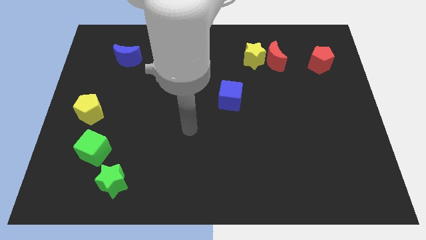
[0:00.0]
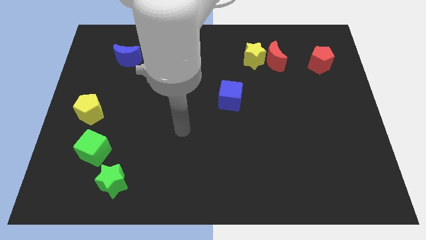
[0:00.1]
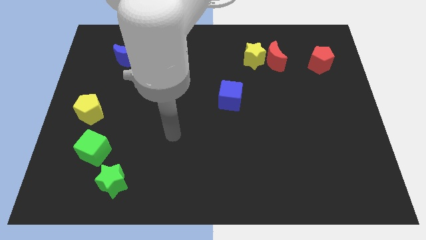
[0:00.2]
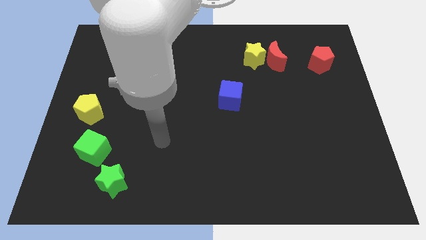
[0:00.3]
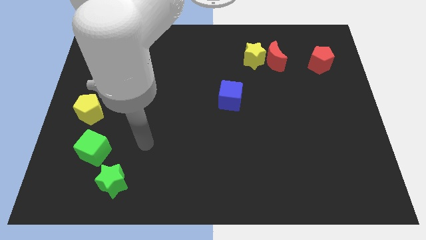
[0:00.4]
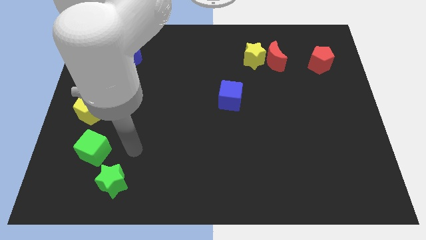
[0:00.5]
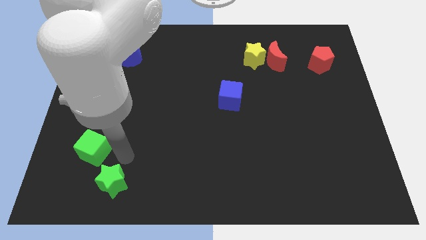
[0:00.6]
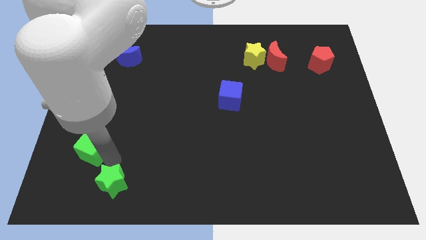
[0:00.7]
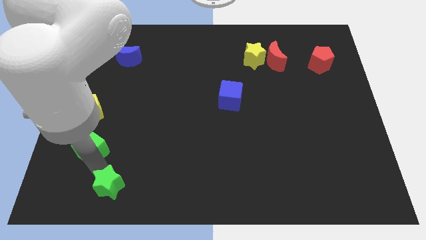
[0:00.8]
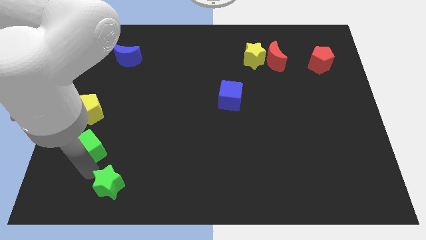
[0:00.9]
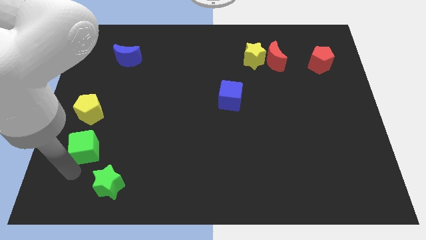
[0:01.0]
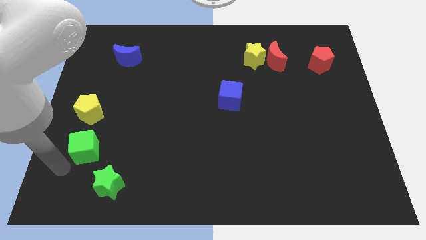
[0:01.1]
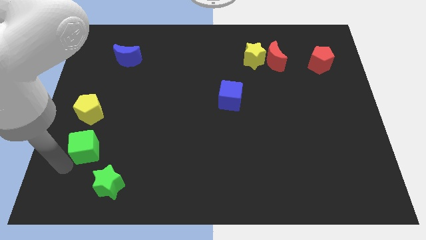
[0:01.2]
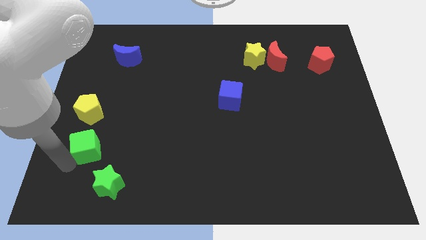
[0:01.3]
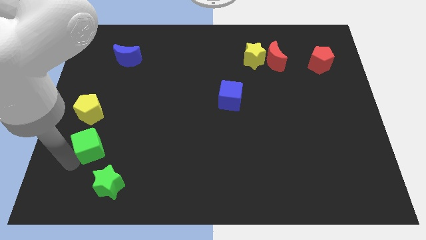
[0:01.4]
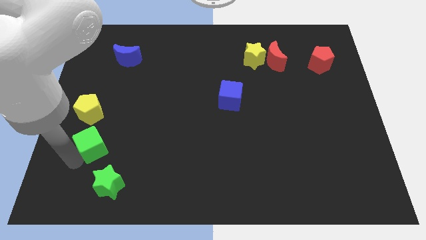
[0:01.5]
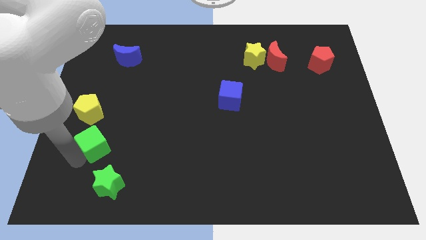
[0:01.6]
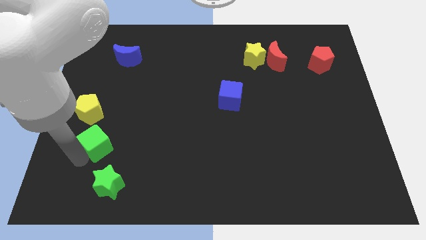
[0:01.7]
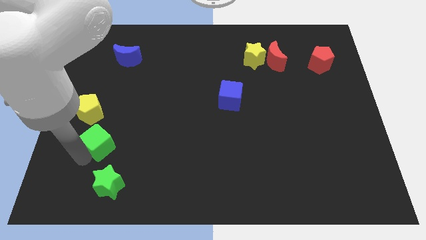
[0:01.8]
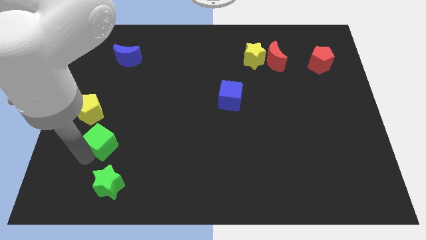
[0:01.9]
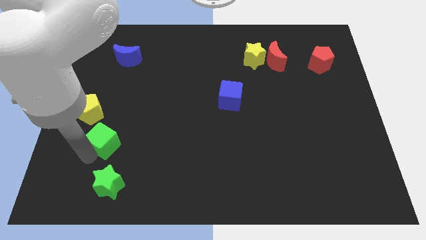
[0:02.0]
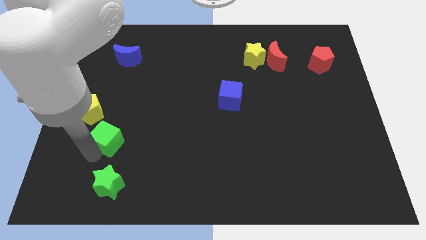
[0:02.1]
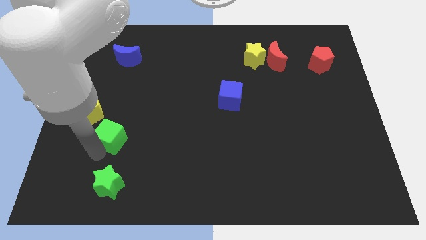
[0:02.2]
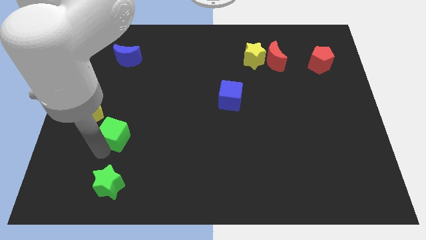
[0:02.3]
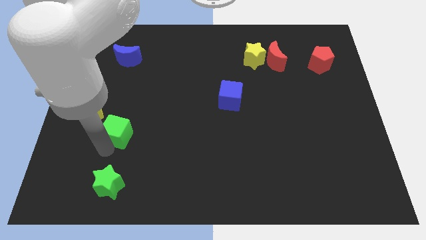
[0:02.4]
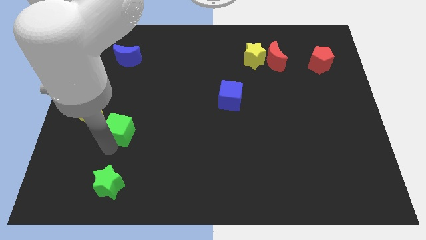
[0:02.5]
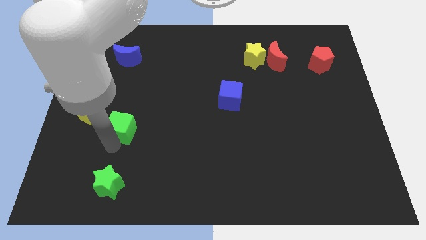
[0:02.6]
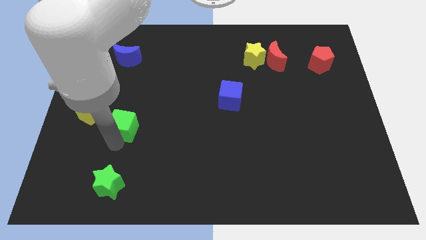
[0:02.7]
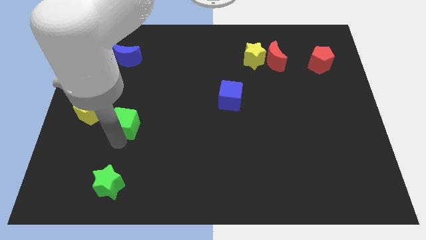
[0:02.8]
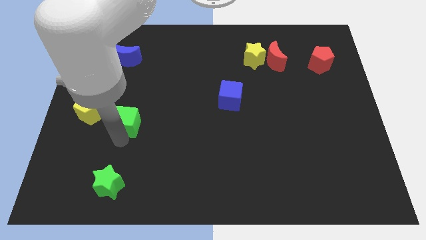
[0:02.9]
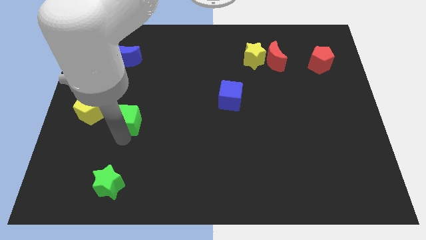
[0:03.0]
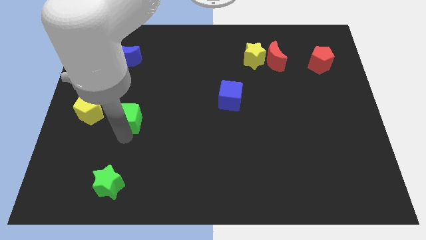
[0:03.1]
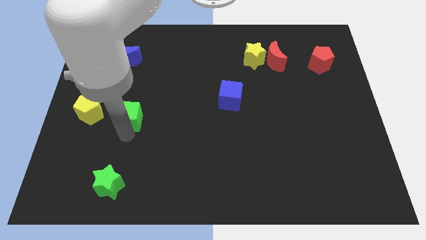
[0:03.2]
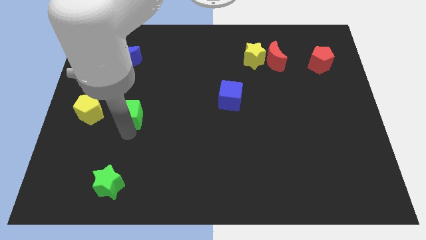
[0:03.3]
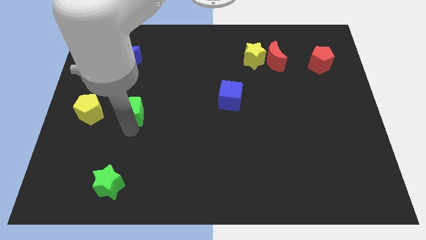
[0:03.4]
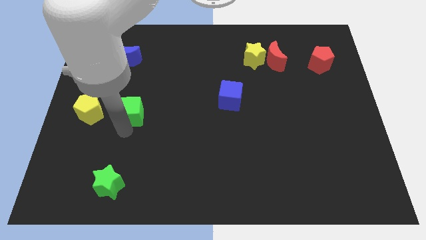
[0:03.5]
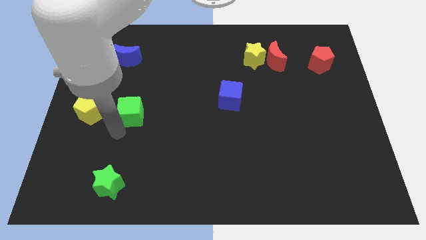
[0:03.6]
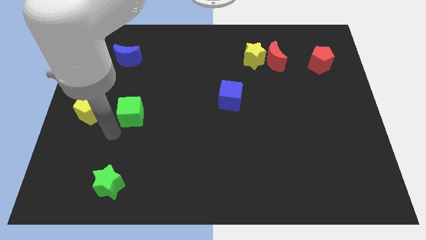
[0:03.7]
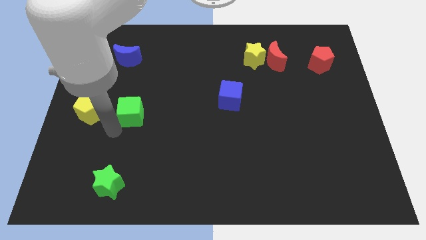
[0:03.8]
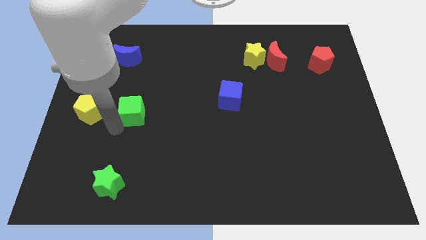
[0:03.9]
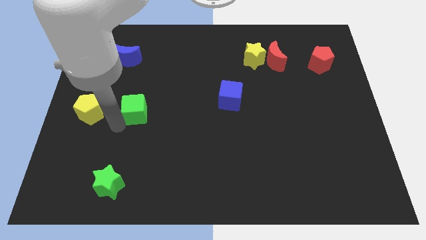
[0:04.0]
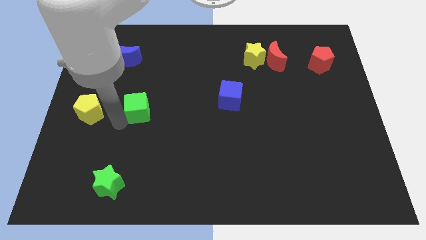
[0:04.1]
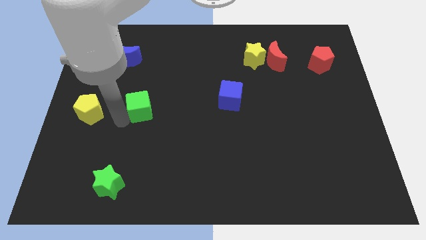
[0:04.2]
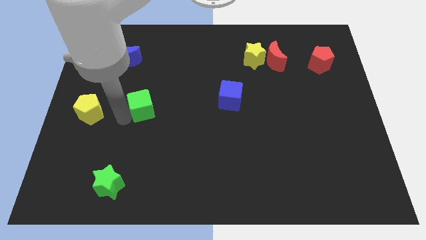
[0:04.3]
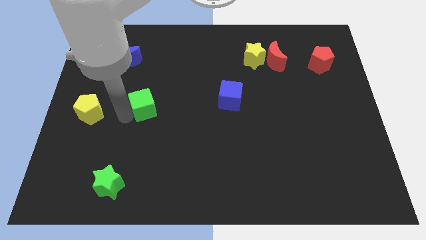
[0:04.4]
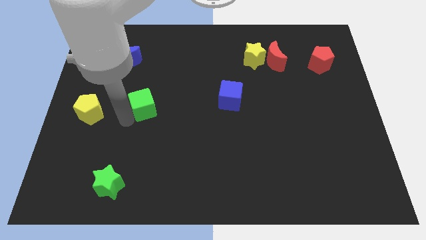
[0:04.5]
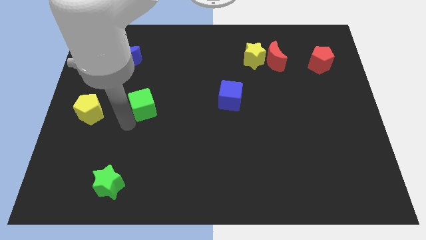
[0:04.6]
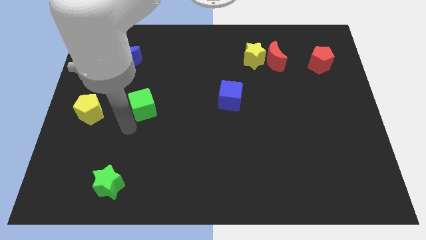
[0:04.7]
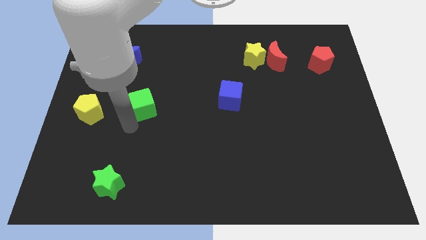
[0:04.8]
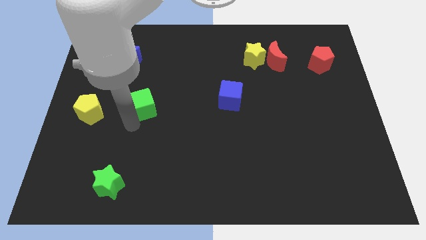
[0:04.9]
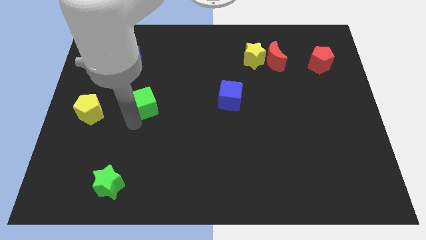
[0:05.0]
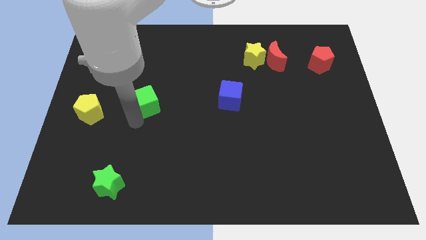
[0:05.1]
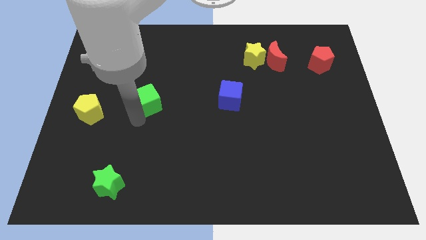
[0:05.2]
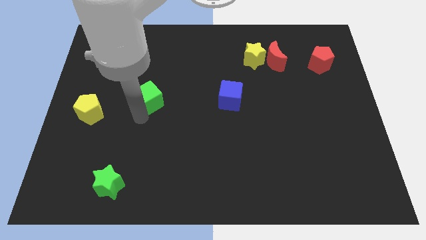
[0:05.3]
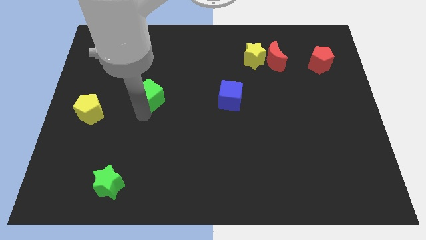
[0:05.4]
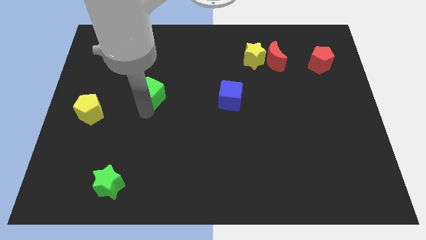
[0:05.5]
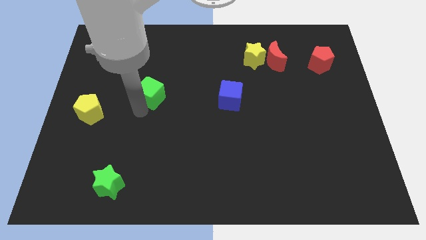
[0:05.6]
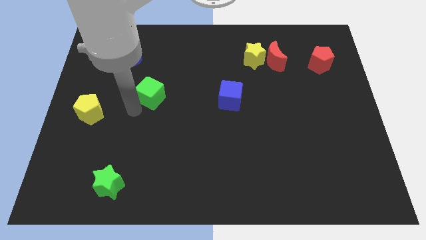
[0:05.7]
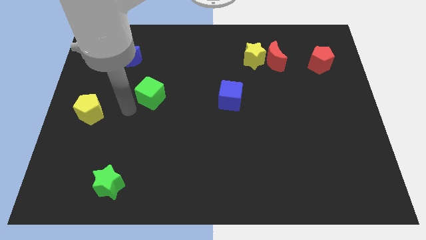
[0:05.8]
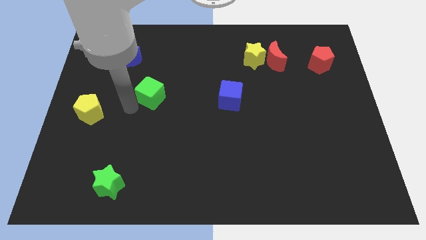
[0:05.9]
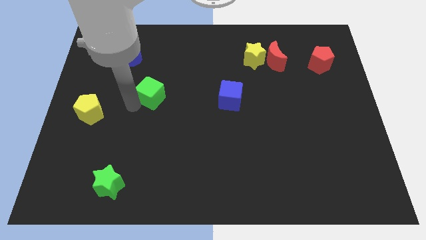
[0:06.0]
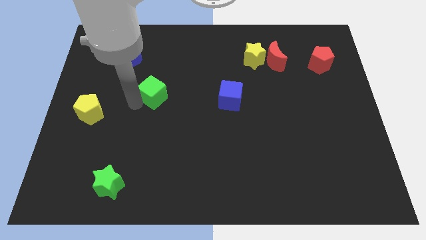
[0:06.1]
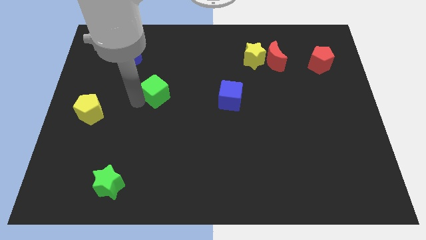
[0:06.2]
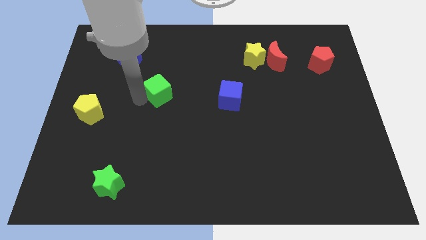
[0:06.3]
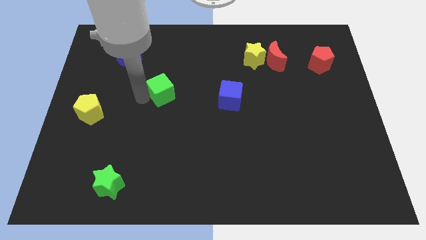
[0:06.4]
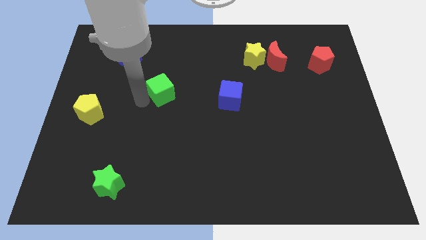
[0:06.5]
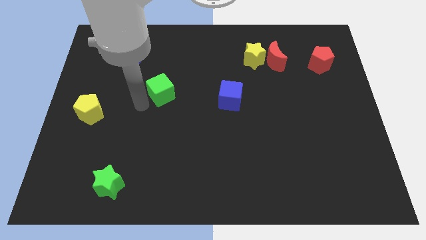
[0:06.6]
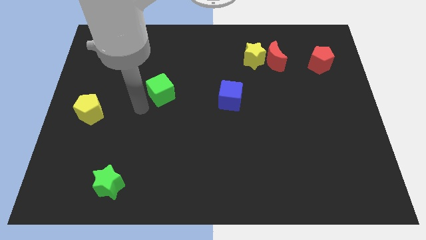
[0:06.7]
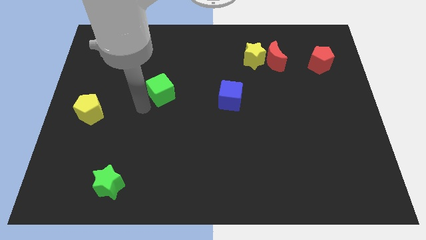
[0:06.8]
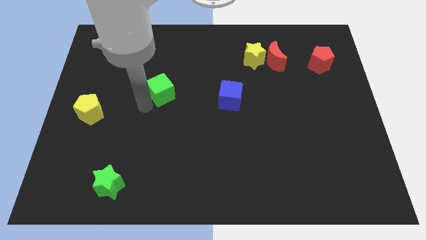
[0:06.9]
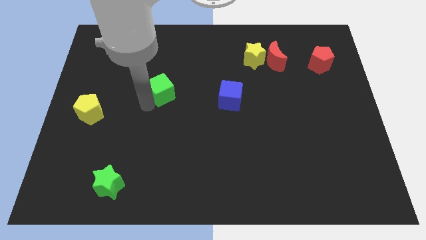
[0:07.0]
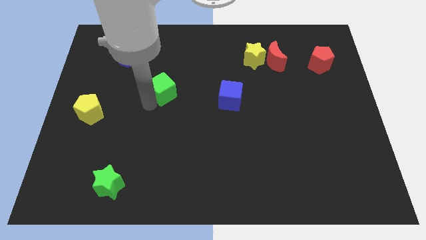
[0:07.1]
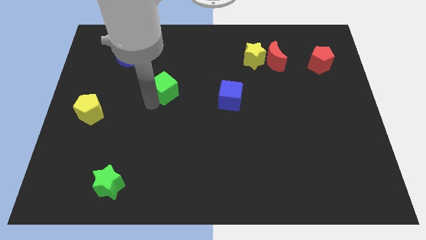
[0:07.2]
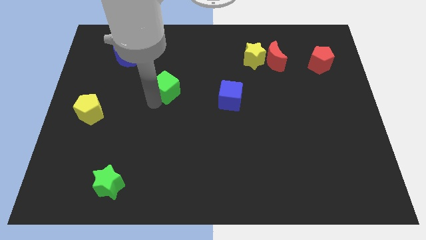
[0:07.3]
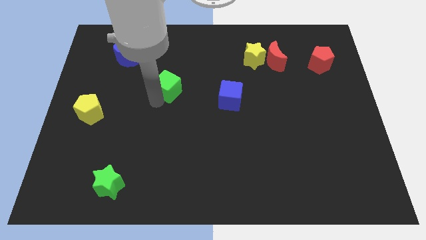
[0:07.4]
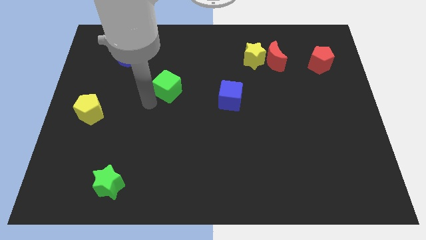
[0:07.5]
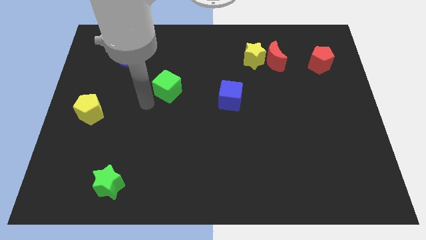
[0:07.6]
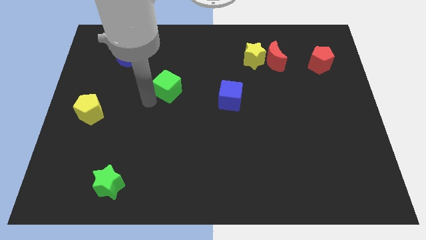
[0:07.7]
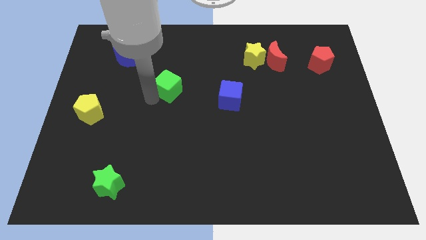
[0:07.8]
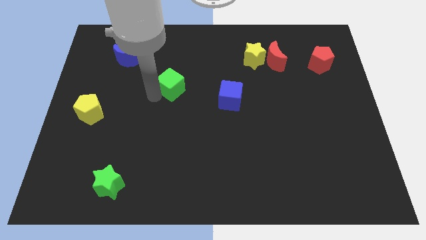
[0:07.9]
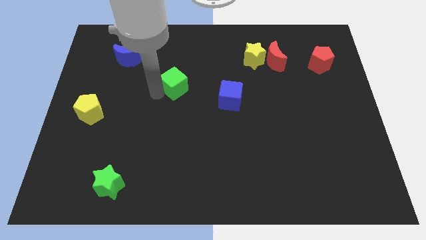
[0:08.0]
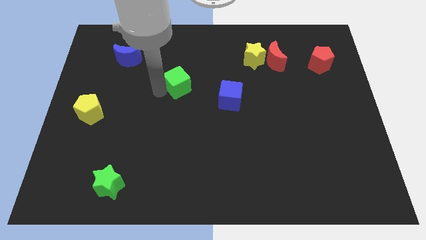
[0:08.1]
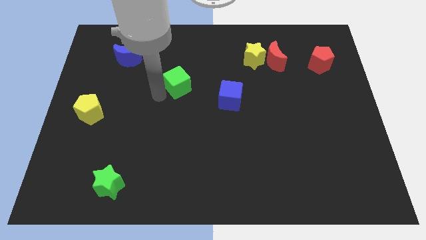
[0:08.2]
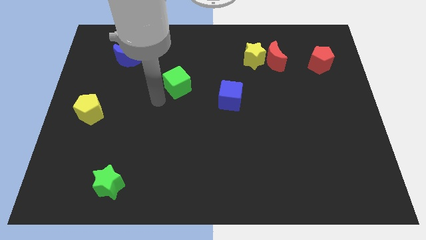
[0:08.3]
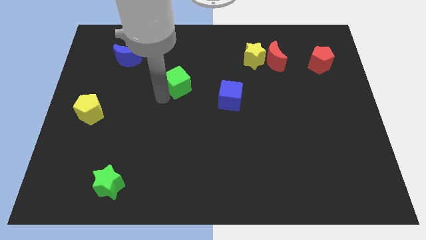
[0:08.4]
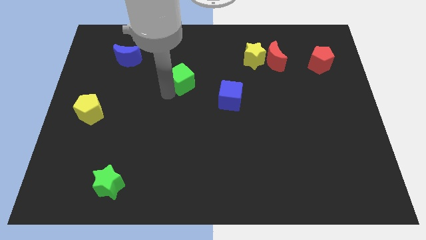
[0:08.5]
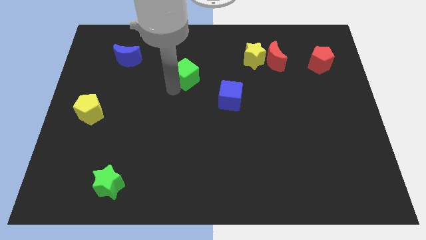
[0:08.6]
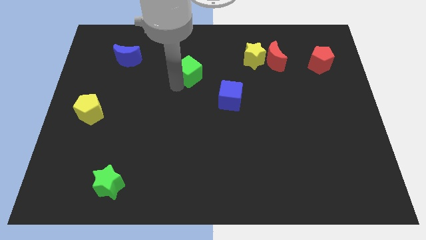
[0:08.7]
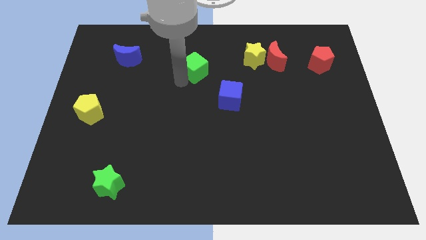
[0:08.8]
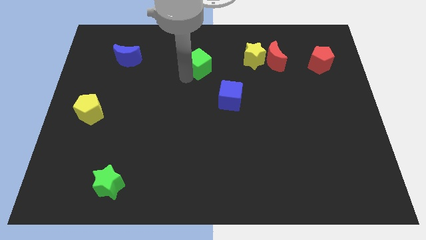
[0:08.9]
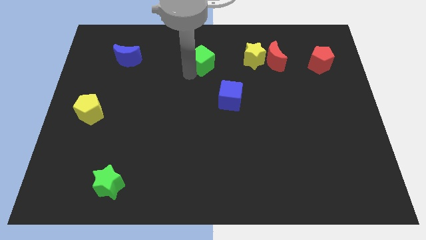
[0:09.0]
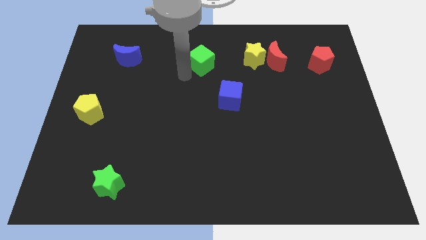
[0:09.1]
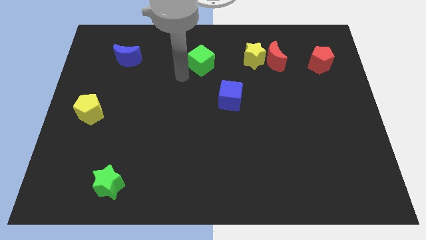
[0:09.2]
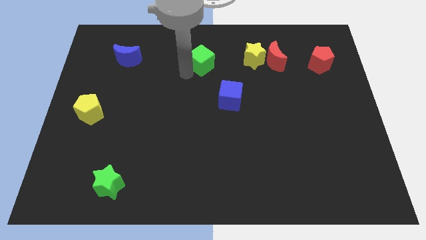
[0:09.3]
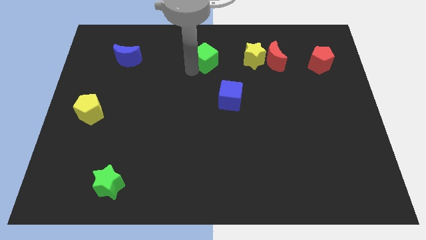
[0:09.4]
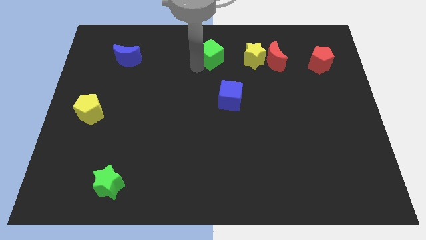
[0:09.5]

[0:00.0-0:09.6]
slide the green cube to the top side
